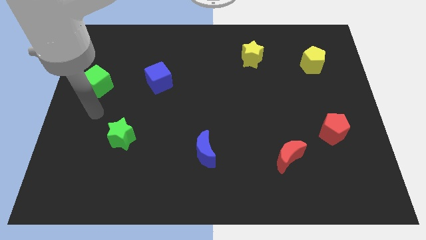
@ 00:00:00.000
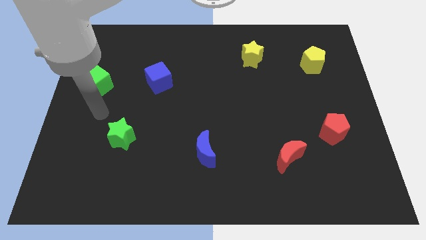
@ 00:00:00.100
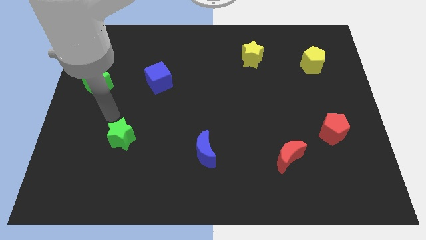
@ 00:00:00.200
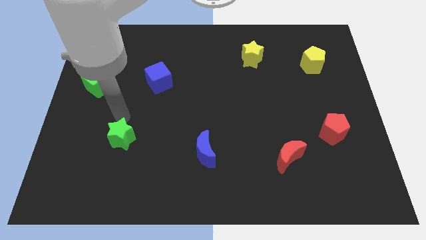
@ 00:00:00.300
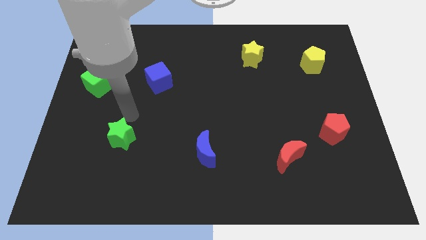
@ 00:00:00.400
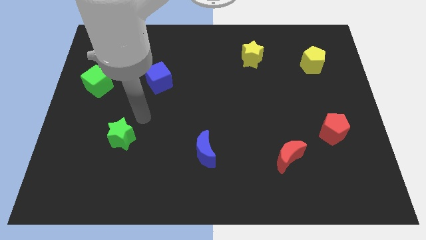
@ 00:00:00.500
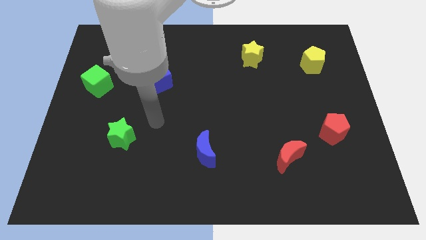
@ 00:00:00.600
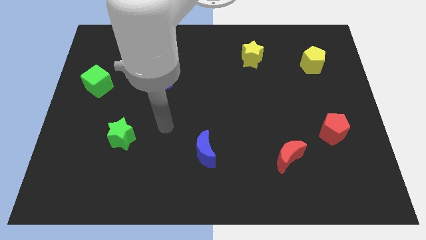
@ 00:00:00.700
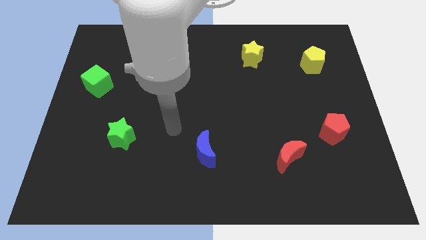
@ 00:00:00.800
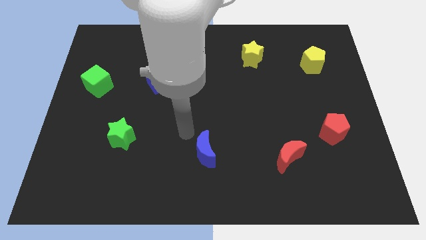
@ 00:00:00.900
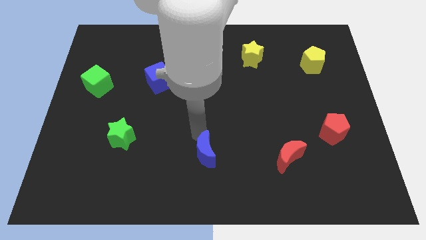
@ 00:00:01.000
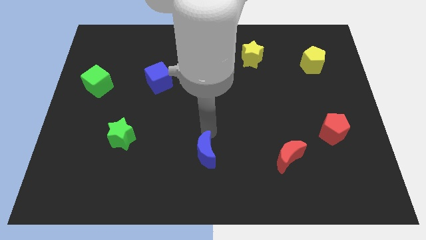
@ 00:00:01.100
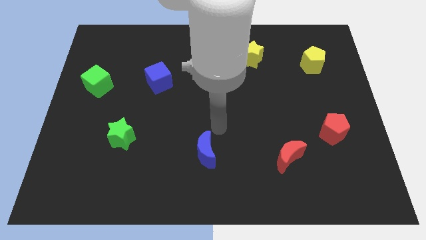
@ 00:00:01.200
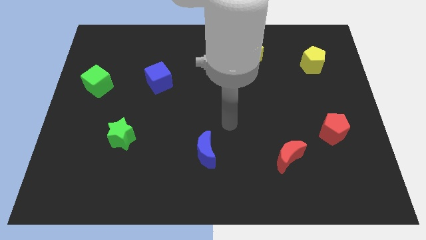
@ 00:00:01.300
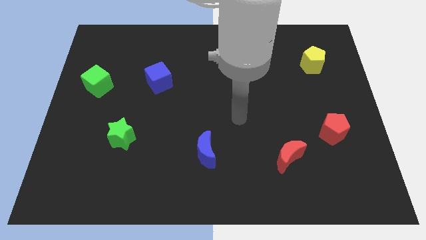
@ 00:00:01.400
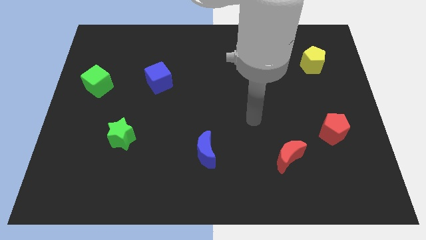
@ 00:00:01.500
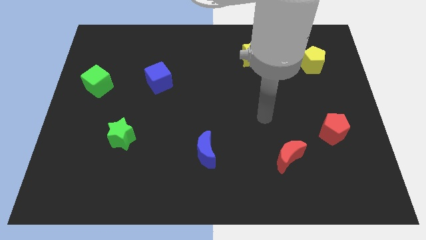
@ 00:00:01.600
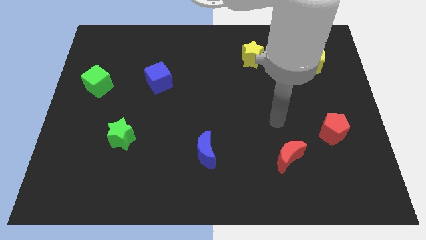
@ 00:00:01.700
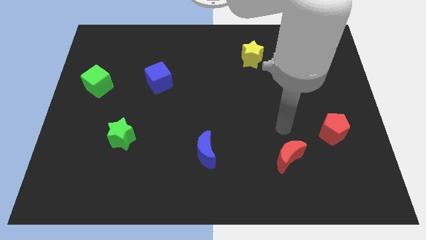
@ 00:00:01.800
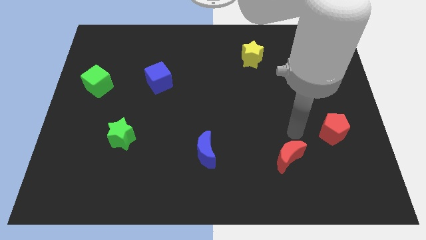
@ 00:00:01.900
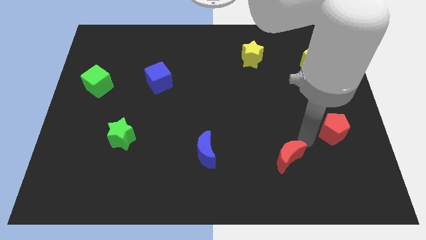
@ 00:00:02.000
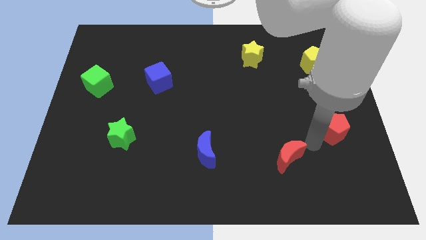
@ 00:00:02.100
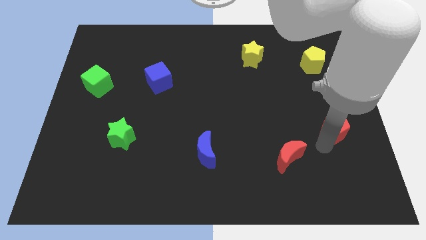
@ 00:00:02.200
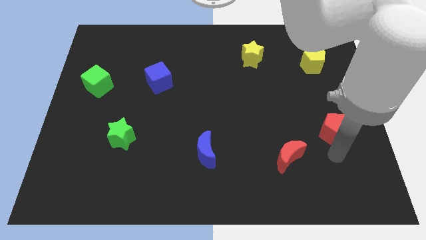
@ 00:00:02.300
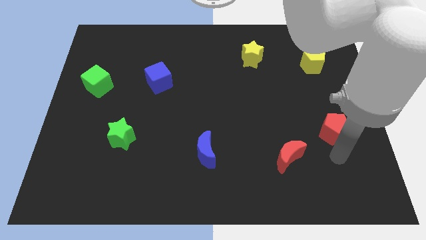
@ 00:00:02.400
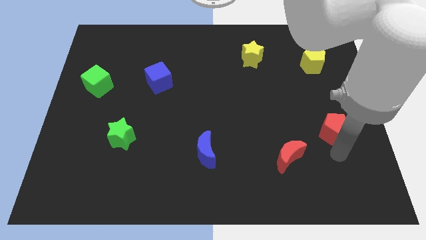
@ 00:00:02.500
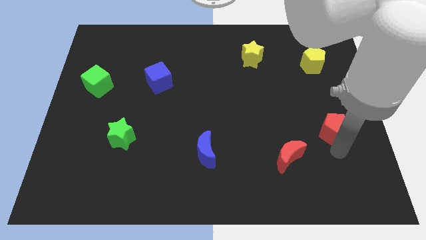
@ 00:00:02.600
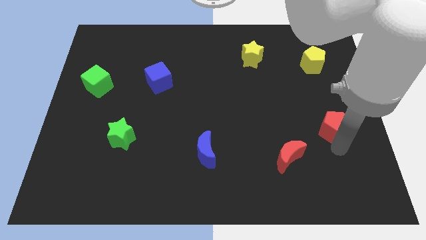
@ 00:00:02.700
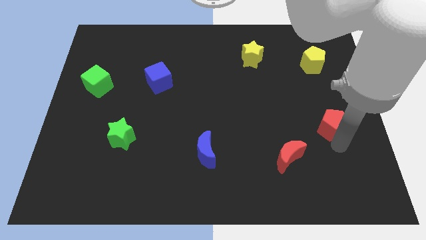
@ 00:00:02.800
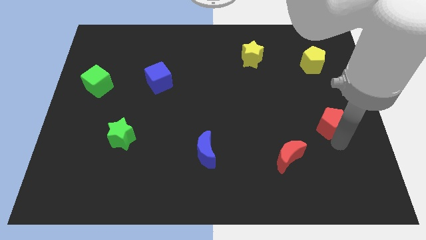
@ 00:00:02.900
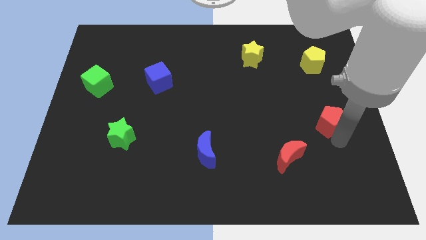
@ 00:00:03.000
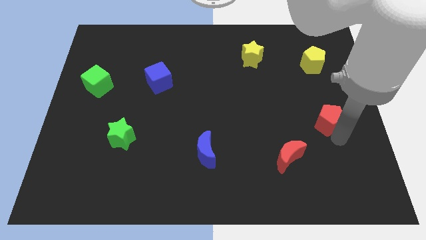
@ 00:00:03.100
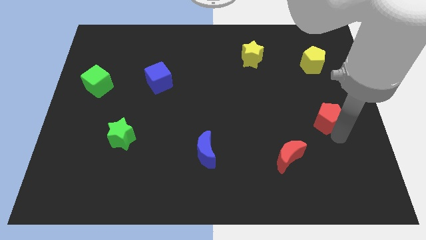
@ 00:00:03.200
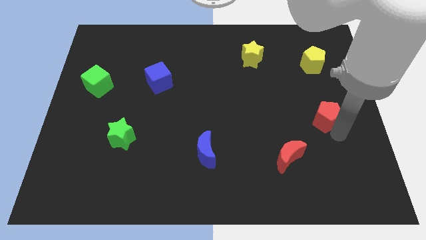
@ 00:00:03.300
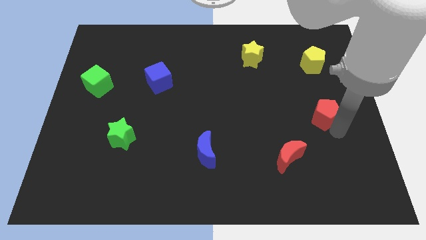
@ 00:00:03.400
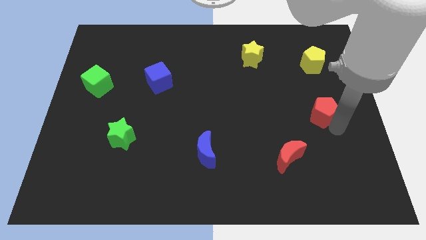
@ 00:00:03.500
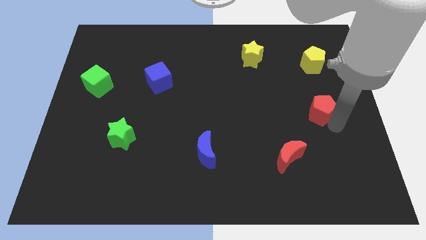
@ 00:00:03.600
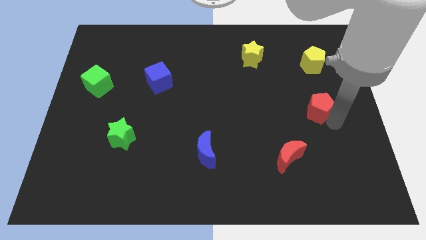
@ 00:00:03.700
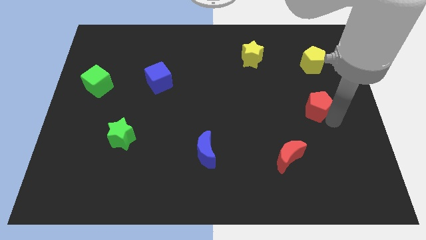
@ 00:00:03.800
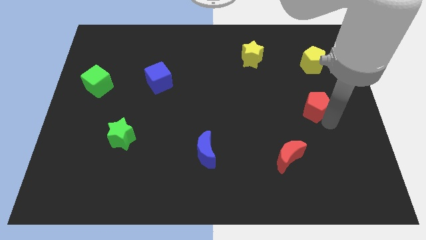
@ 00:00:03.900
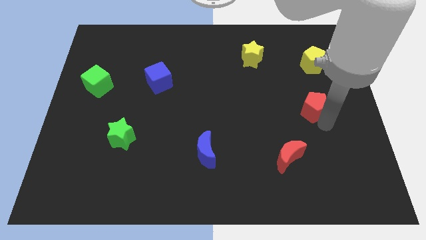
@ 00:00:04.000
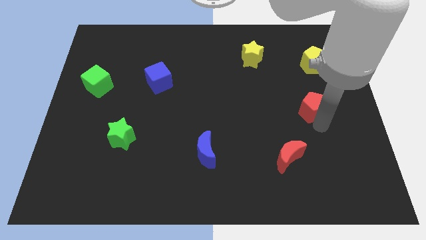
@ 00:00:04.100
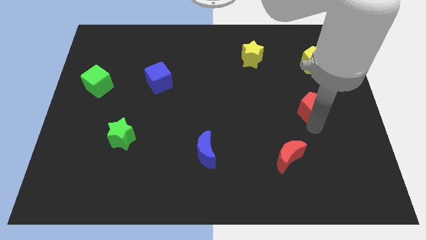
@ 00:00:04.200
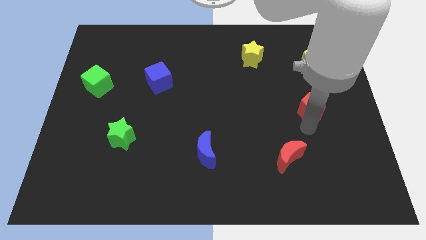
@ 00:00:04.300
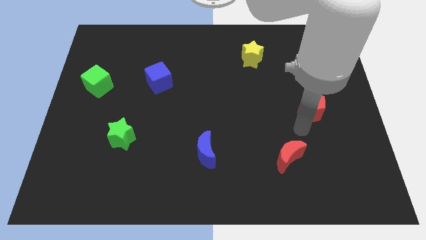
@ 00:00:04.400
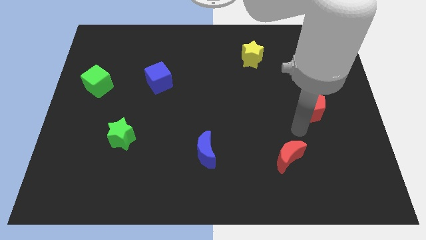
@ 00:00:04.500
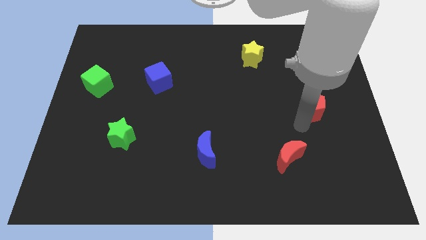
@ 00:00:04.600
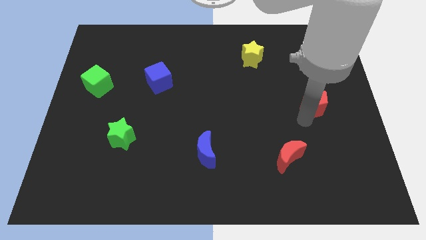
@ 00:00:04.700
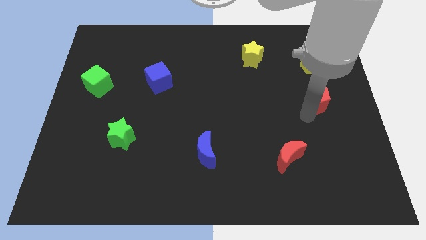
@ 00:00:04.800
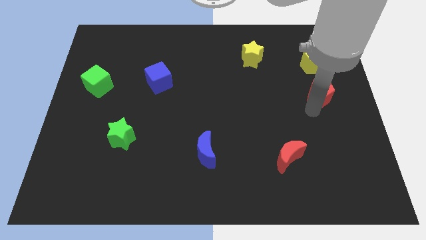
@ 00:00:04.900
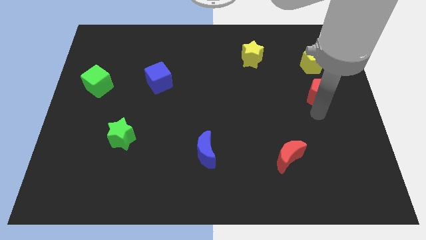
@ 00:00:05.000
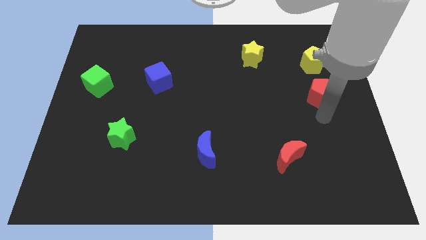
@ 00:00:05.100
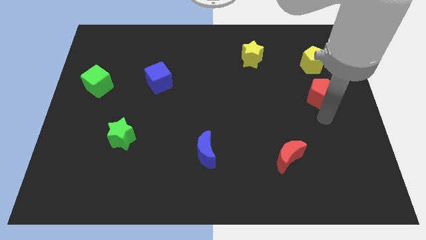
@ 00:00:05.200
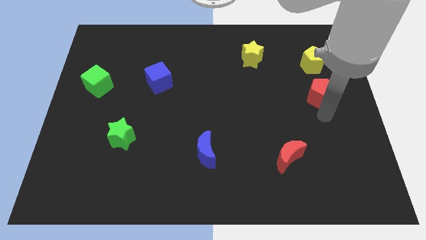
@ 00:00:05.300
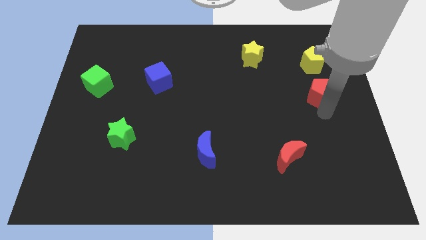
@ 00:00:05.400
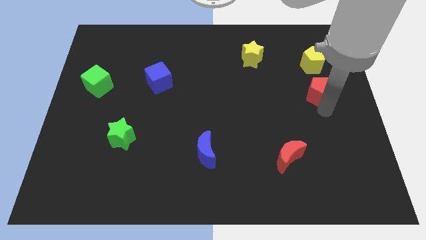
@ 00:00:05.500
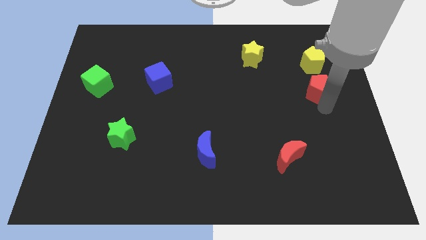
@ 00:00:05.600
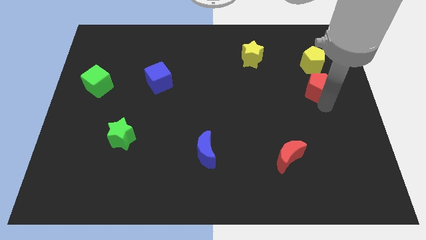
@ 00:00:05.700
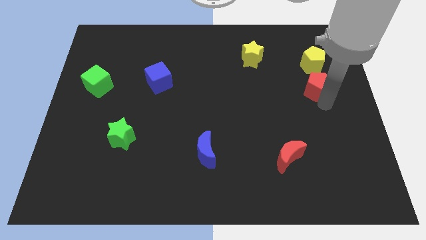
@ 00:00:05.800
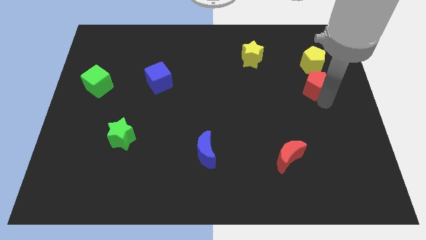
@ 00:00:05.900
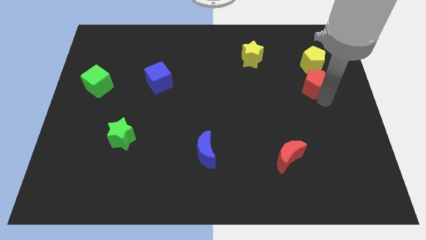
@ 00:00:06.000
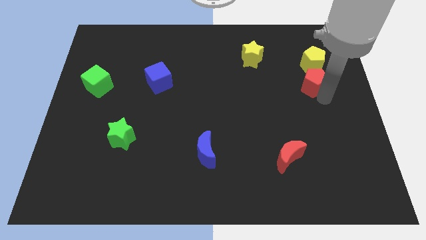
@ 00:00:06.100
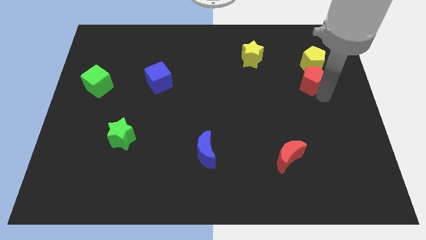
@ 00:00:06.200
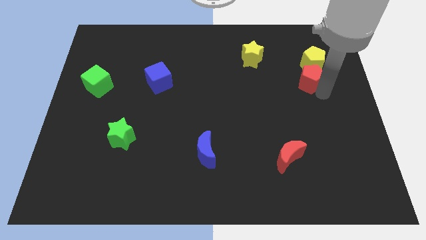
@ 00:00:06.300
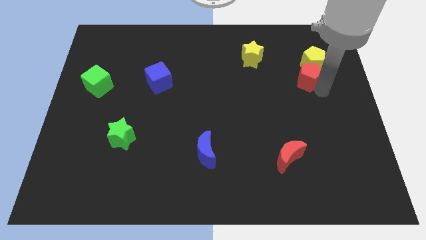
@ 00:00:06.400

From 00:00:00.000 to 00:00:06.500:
move the red pentagon next to the yellow pentagon

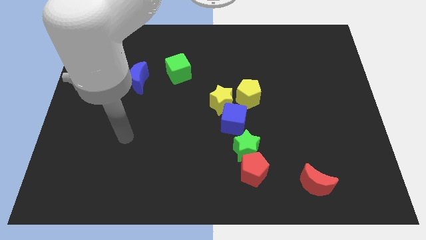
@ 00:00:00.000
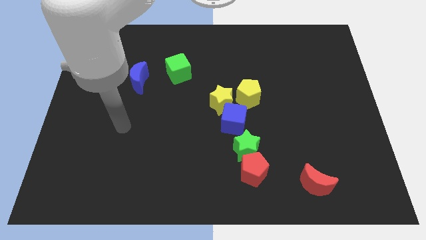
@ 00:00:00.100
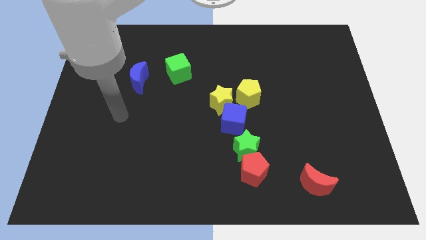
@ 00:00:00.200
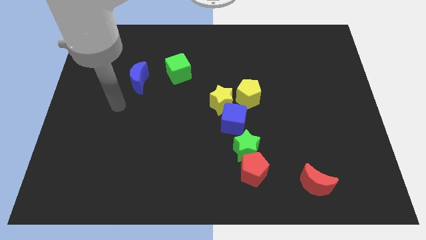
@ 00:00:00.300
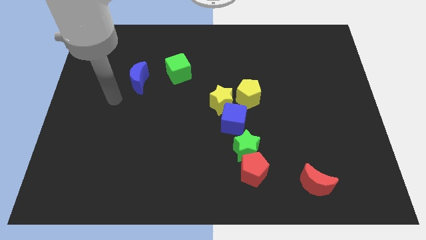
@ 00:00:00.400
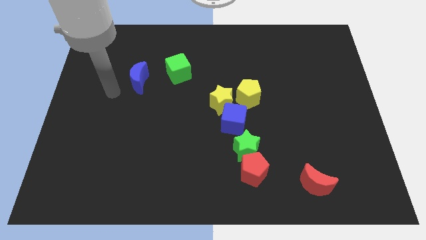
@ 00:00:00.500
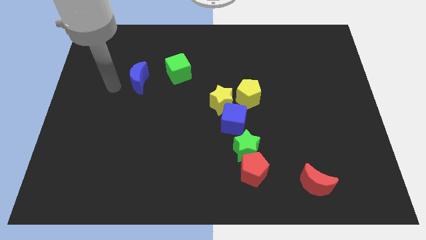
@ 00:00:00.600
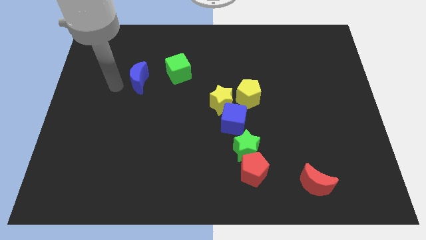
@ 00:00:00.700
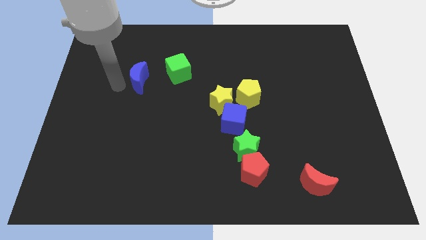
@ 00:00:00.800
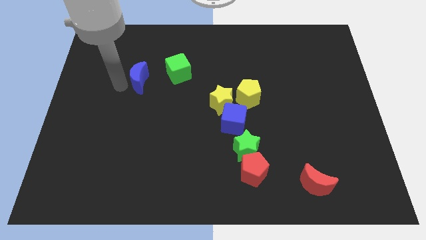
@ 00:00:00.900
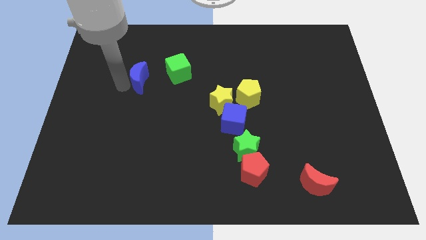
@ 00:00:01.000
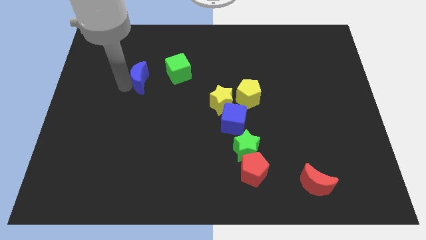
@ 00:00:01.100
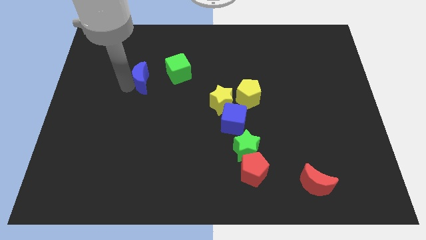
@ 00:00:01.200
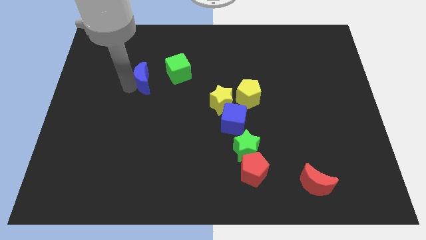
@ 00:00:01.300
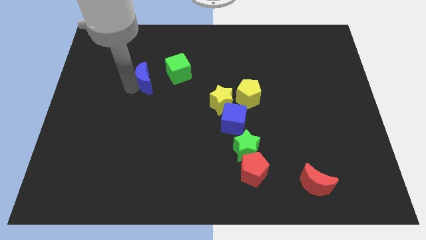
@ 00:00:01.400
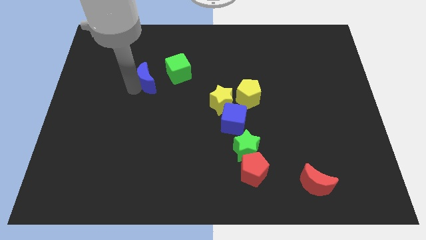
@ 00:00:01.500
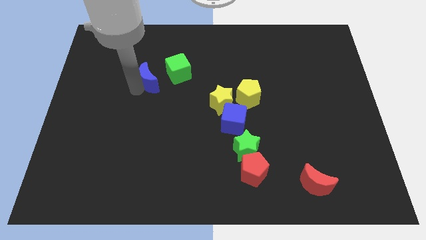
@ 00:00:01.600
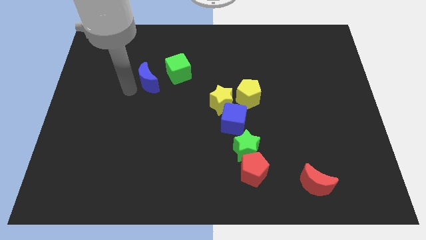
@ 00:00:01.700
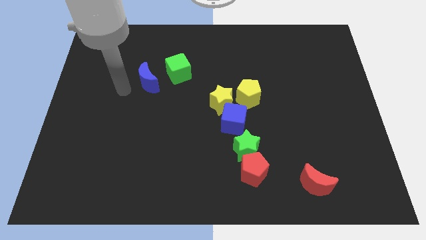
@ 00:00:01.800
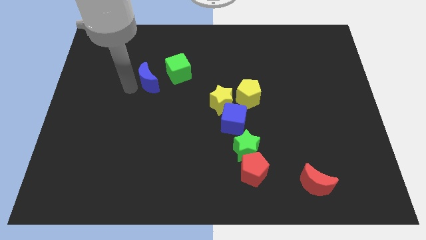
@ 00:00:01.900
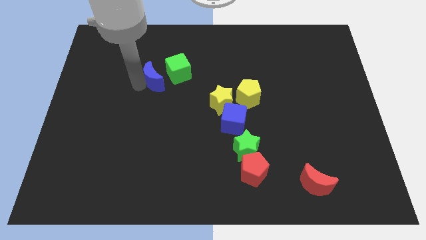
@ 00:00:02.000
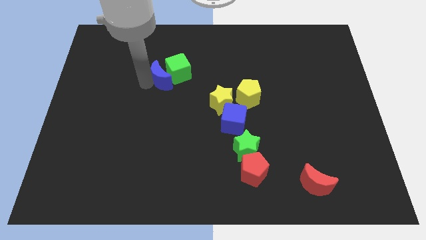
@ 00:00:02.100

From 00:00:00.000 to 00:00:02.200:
push the blue moon to the green cube
